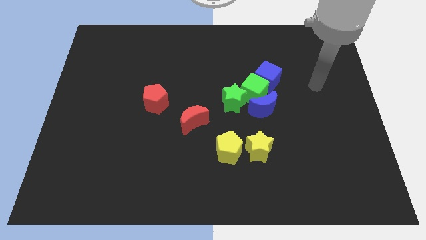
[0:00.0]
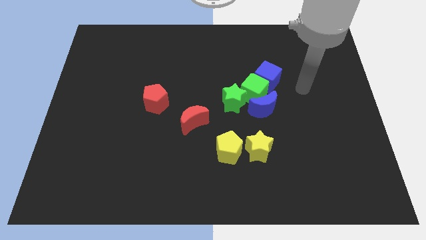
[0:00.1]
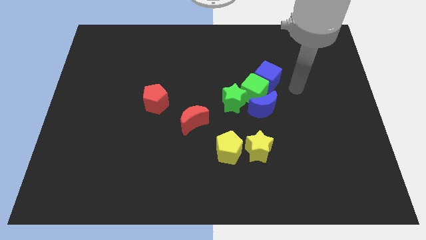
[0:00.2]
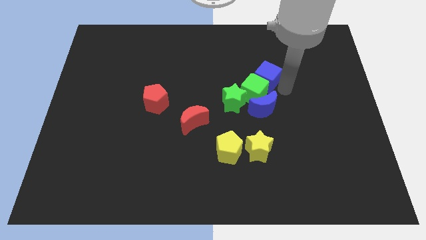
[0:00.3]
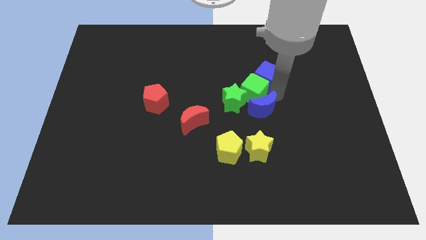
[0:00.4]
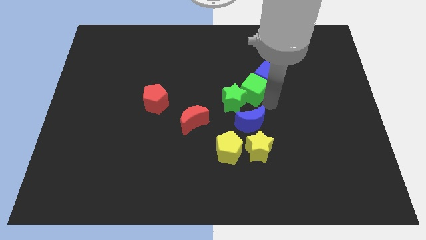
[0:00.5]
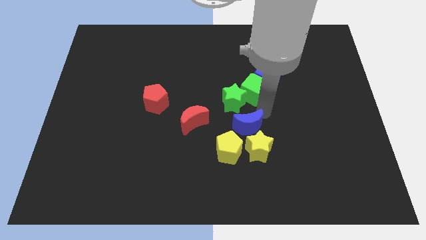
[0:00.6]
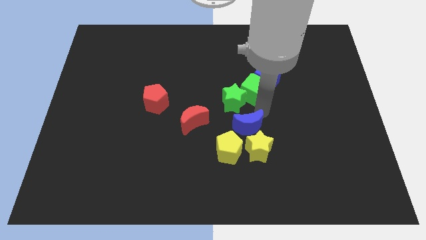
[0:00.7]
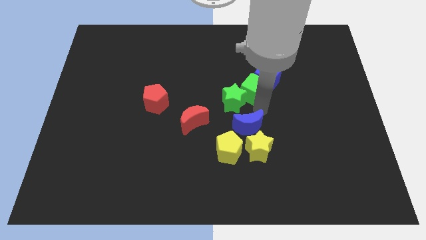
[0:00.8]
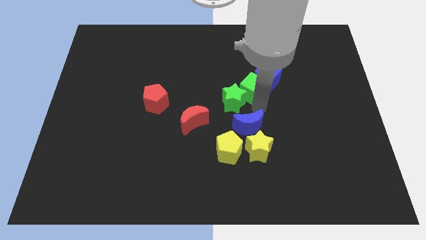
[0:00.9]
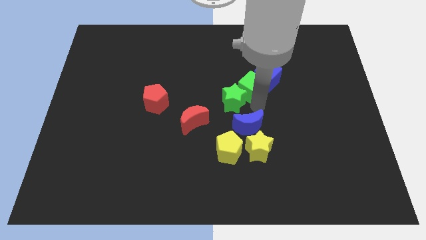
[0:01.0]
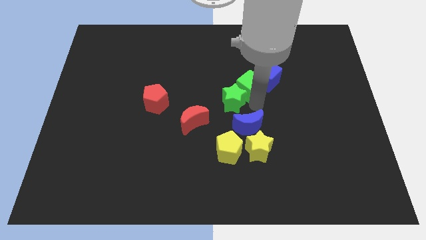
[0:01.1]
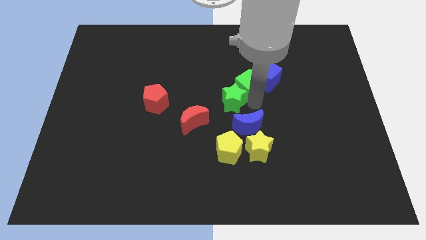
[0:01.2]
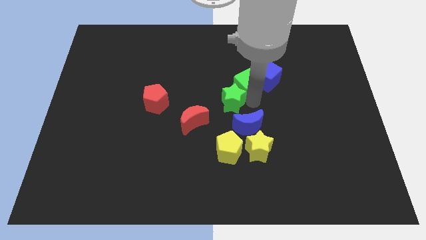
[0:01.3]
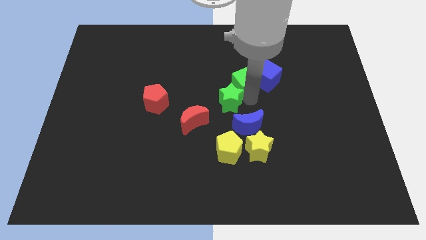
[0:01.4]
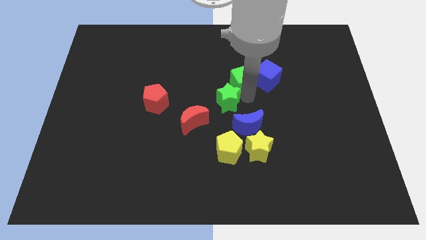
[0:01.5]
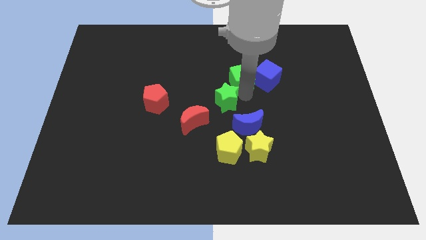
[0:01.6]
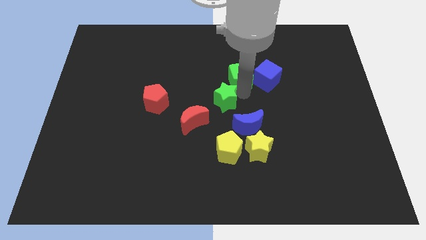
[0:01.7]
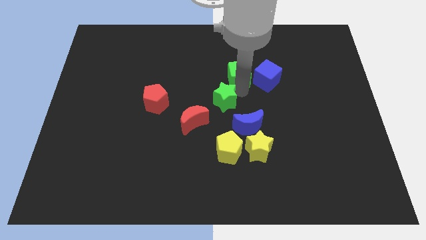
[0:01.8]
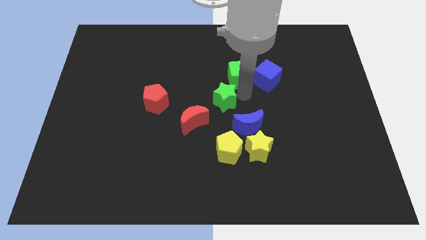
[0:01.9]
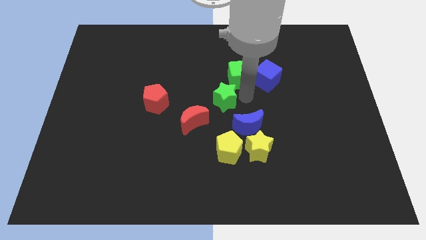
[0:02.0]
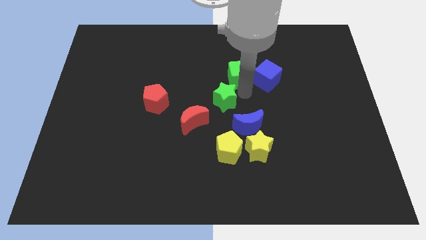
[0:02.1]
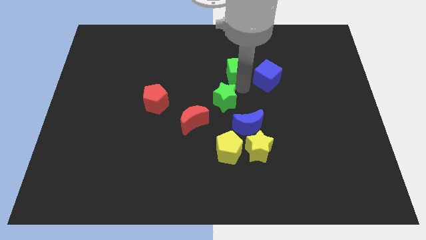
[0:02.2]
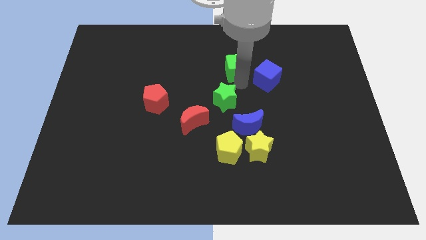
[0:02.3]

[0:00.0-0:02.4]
separate the green cube from the group

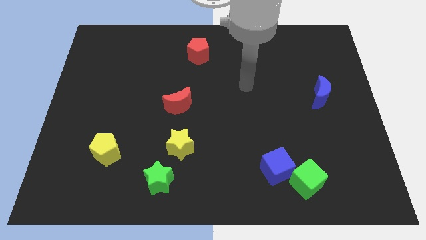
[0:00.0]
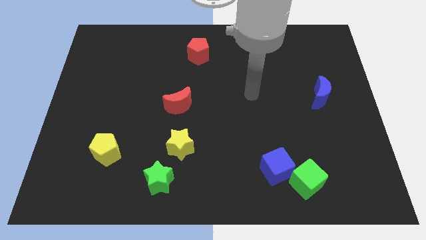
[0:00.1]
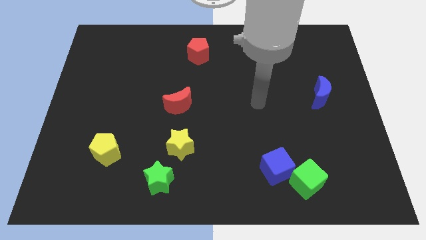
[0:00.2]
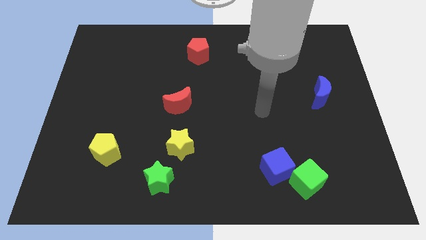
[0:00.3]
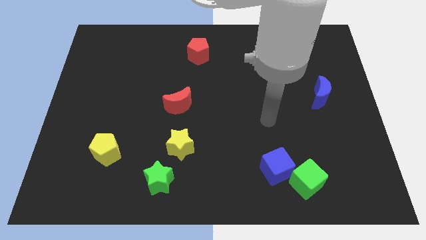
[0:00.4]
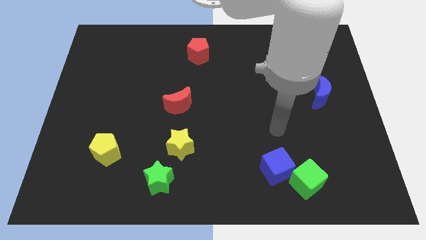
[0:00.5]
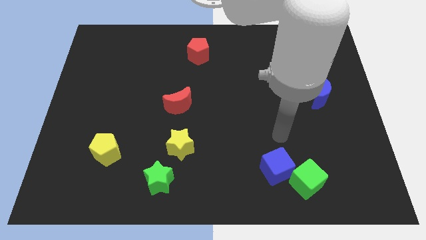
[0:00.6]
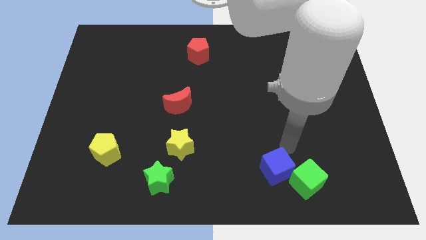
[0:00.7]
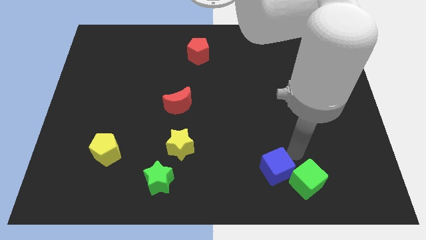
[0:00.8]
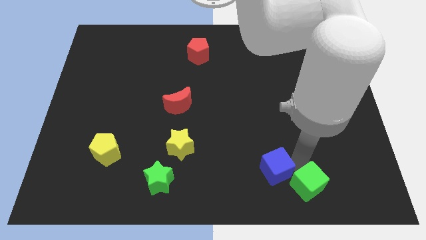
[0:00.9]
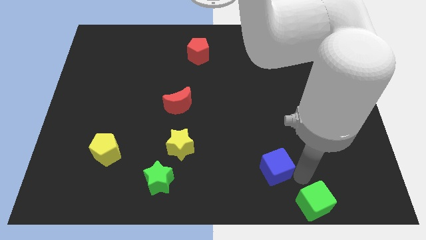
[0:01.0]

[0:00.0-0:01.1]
pull the blue cube apart from the green cube

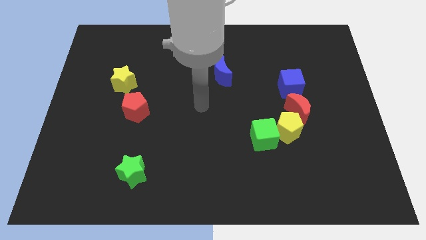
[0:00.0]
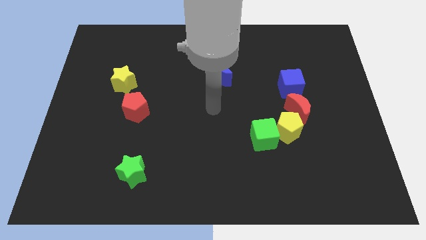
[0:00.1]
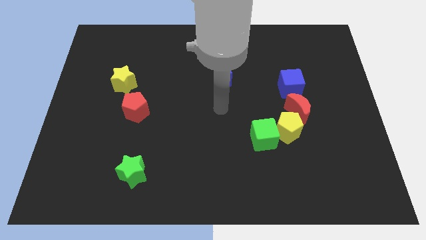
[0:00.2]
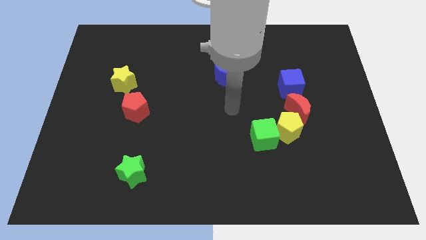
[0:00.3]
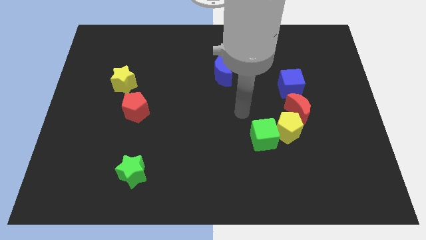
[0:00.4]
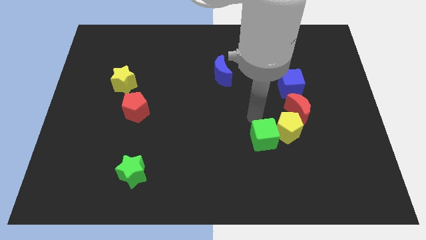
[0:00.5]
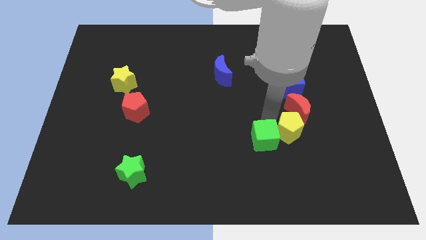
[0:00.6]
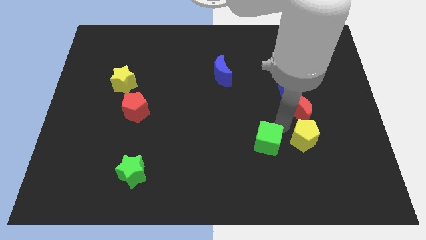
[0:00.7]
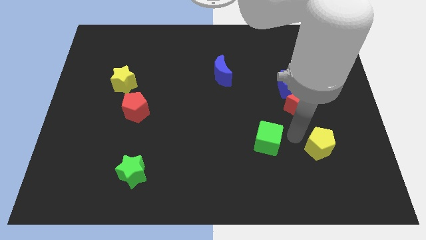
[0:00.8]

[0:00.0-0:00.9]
move the green cube away from the yellow pentagon

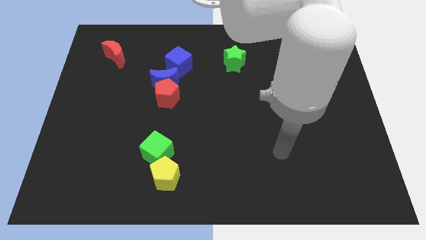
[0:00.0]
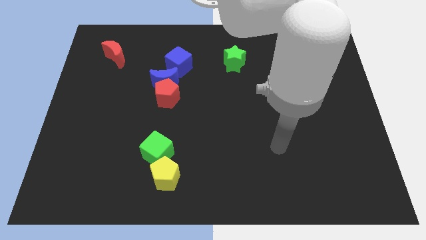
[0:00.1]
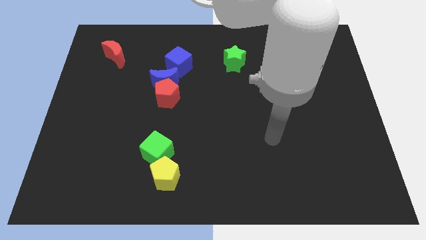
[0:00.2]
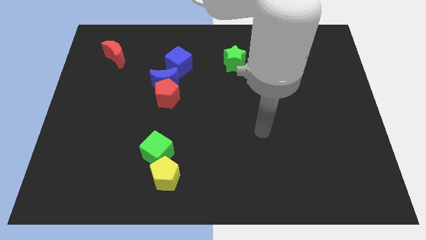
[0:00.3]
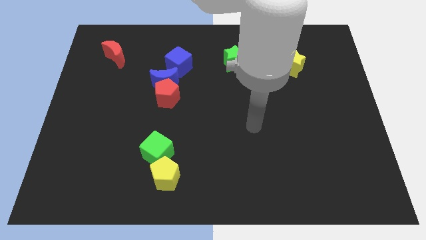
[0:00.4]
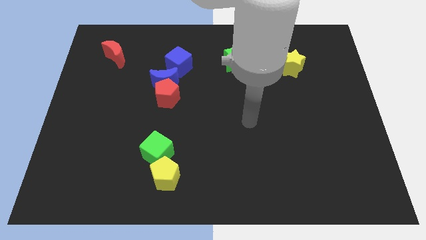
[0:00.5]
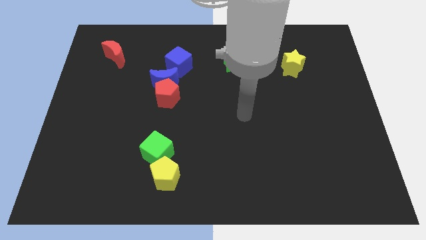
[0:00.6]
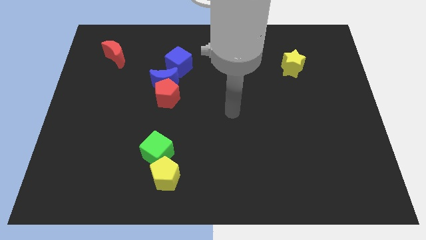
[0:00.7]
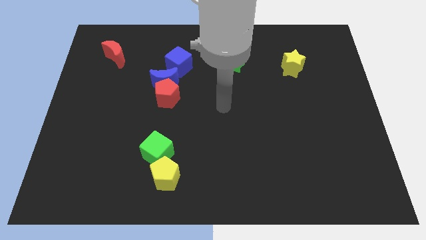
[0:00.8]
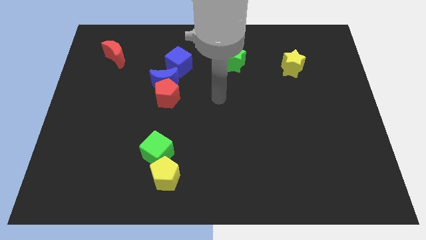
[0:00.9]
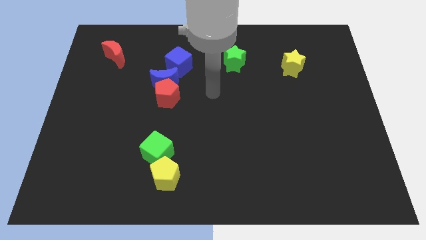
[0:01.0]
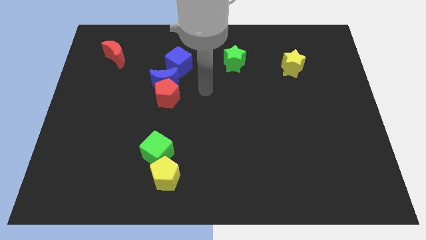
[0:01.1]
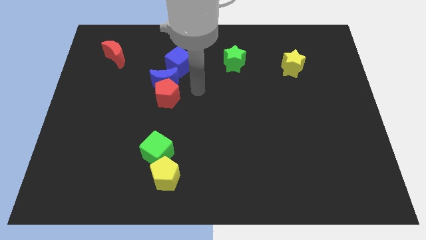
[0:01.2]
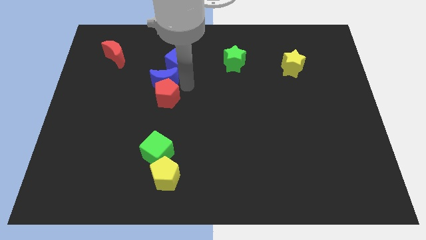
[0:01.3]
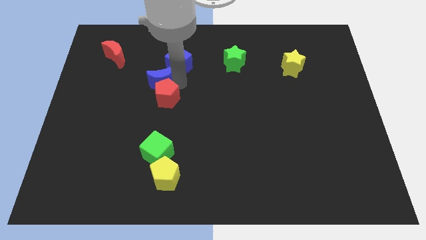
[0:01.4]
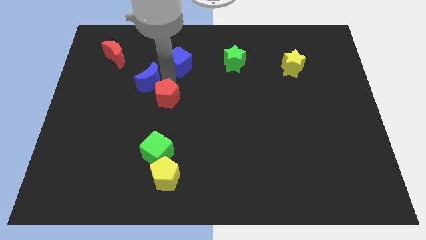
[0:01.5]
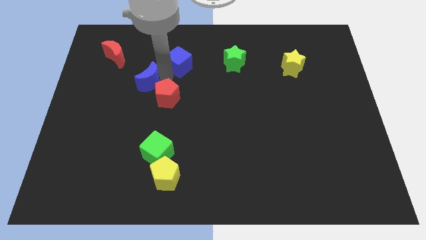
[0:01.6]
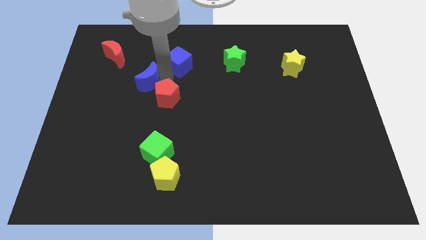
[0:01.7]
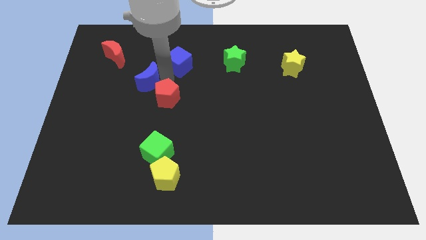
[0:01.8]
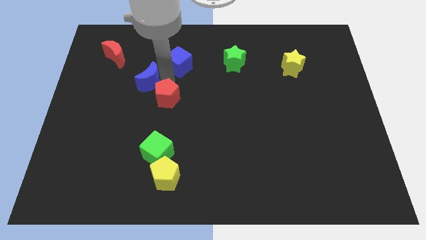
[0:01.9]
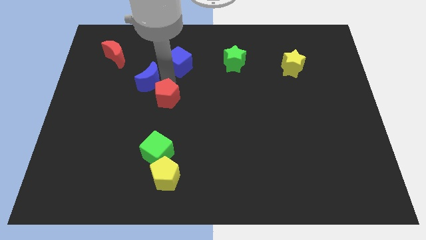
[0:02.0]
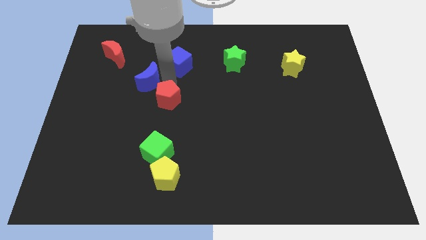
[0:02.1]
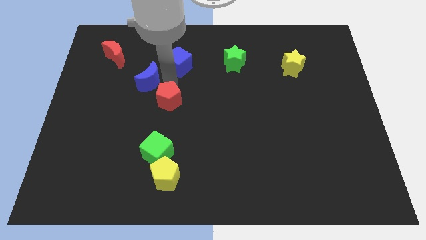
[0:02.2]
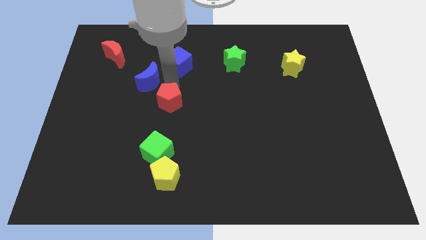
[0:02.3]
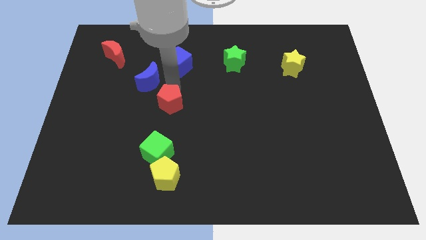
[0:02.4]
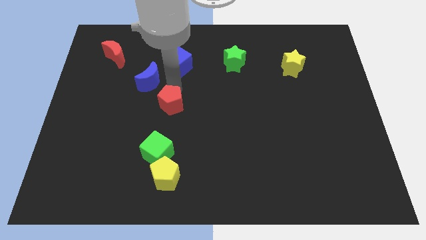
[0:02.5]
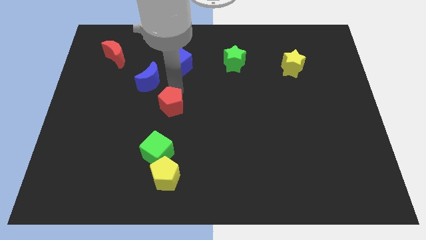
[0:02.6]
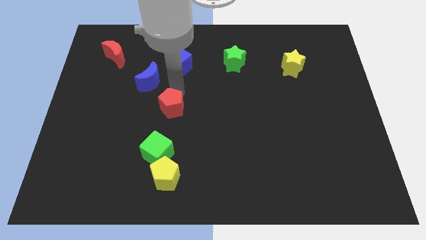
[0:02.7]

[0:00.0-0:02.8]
separate the red pentagon from the blue moon

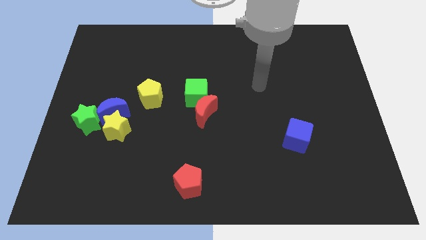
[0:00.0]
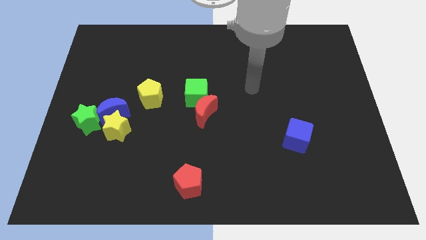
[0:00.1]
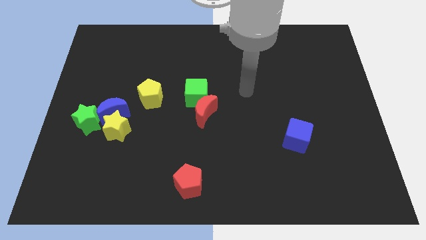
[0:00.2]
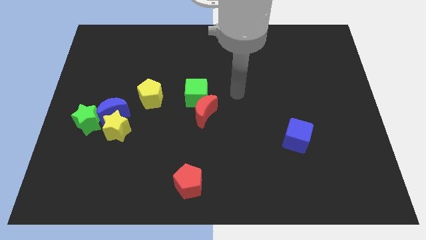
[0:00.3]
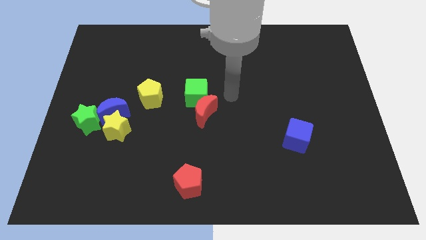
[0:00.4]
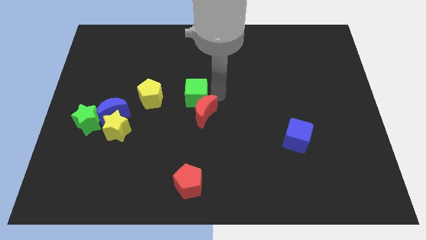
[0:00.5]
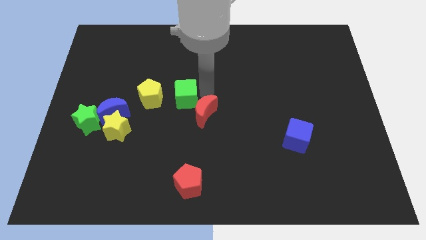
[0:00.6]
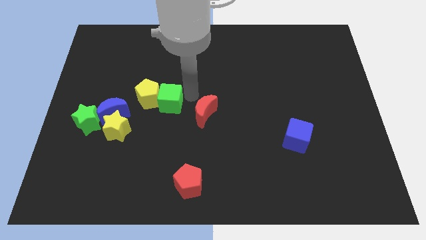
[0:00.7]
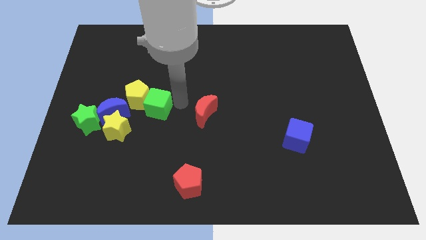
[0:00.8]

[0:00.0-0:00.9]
separate the red moon from the green cube

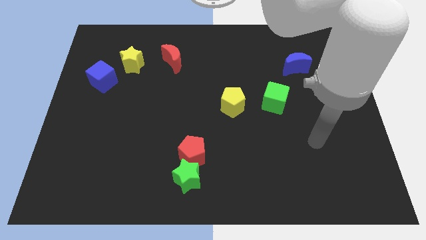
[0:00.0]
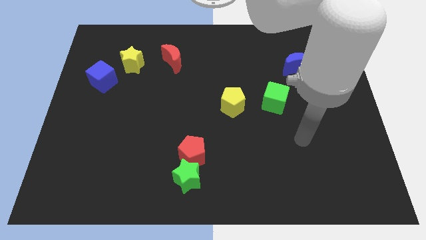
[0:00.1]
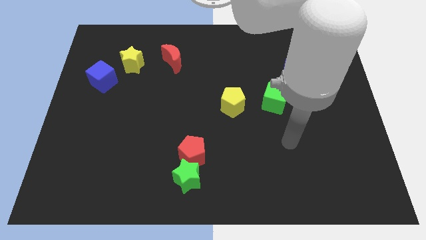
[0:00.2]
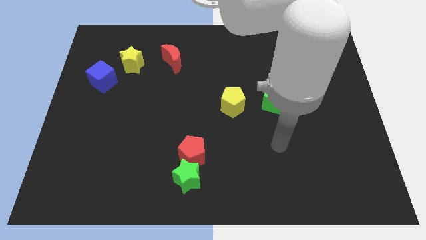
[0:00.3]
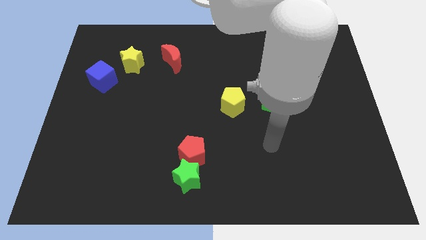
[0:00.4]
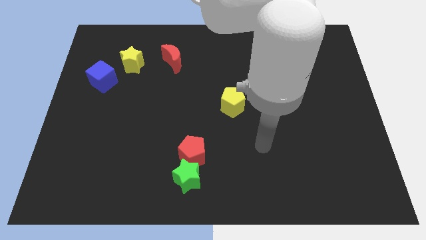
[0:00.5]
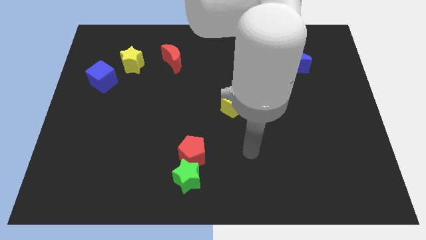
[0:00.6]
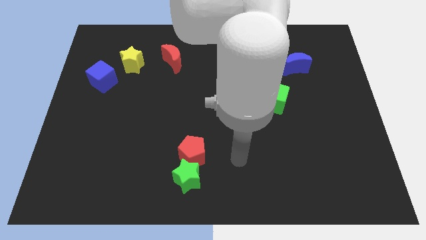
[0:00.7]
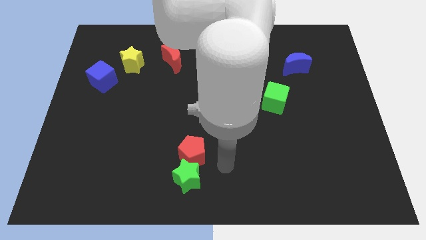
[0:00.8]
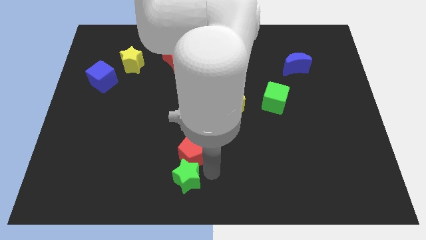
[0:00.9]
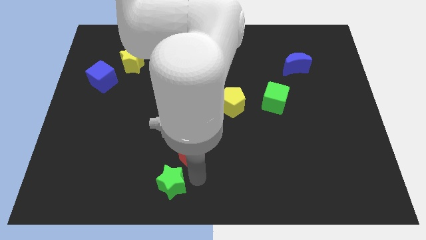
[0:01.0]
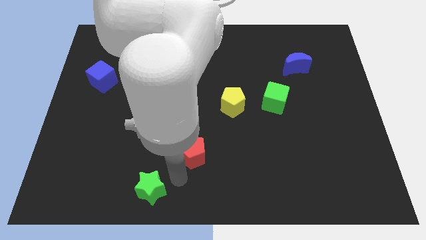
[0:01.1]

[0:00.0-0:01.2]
separate the red pentagon from the green star
